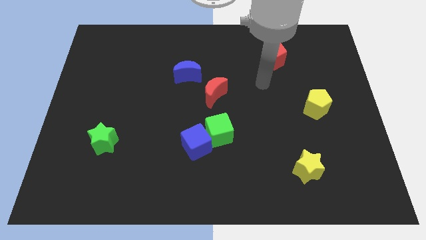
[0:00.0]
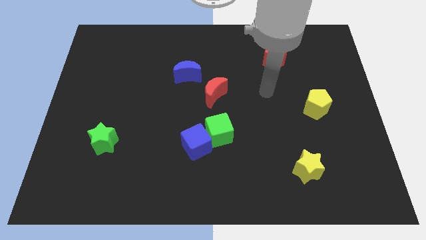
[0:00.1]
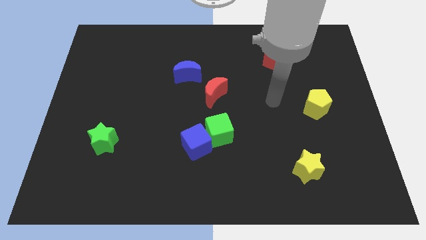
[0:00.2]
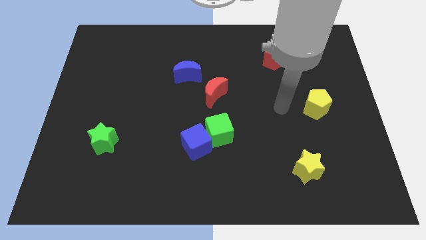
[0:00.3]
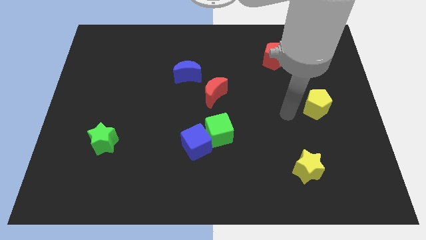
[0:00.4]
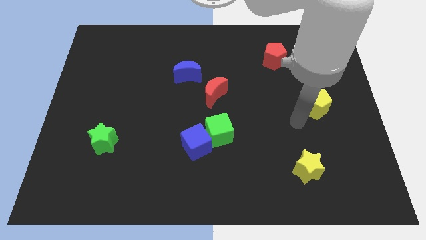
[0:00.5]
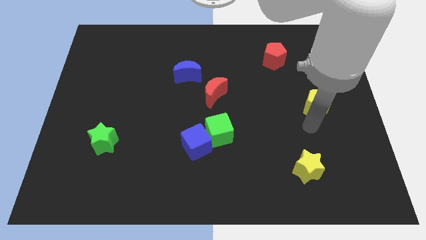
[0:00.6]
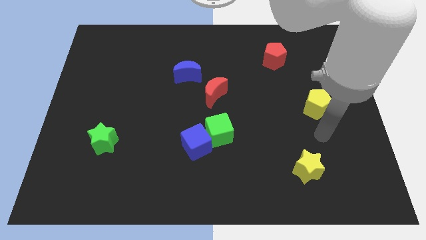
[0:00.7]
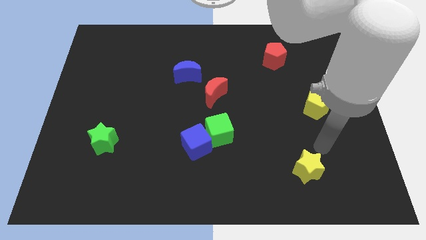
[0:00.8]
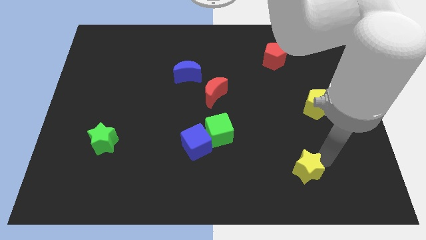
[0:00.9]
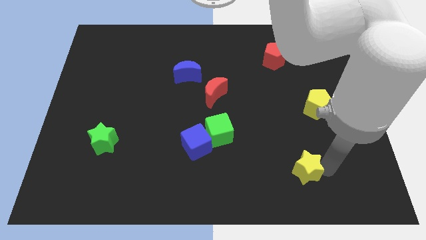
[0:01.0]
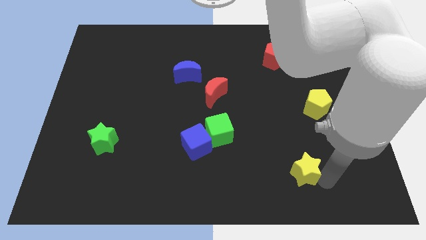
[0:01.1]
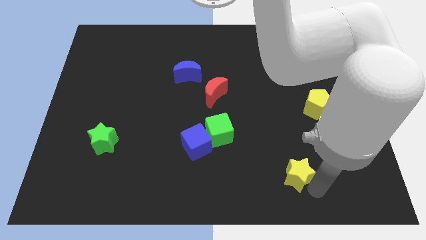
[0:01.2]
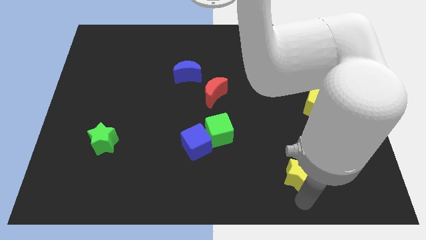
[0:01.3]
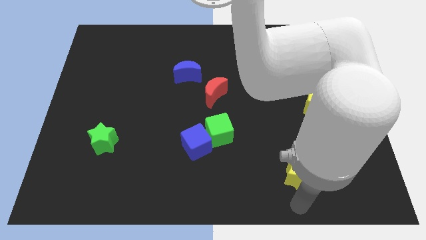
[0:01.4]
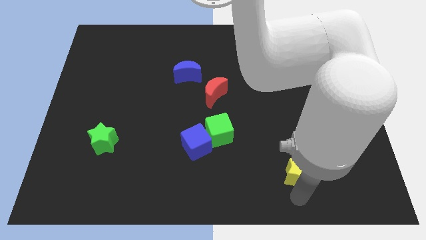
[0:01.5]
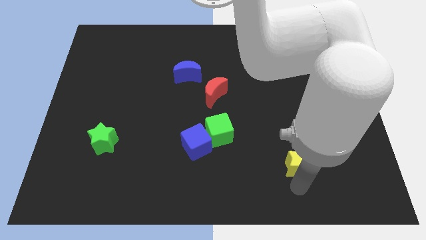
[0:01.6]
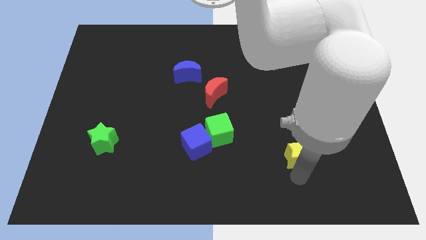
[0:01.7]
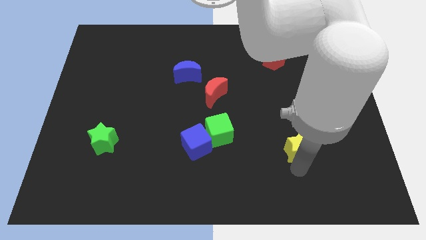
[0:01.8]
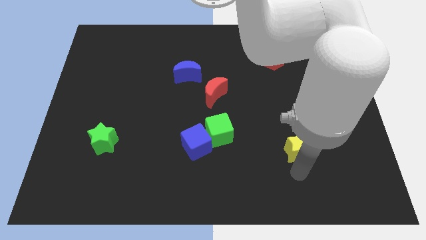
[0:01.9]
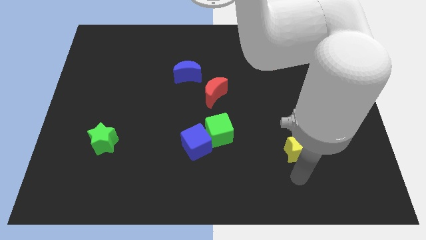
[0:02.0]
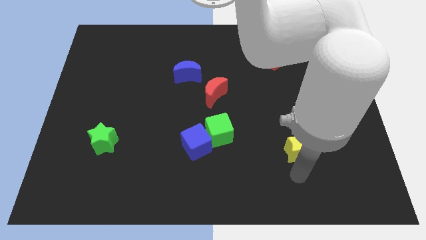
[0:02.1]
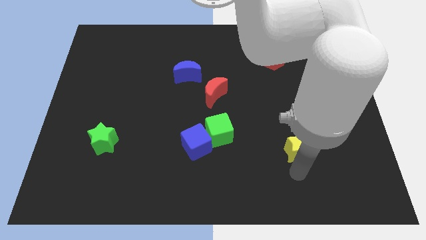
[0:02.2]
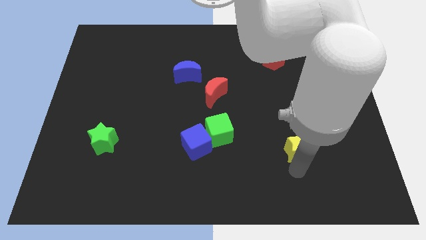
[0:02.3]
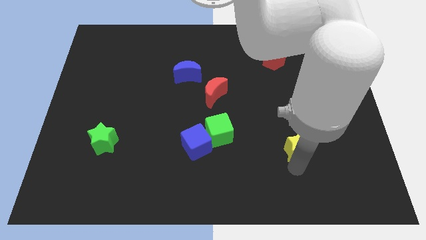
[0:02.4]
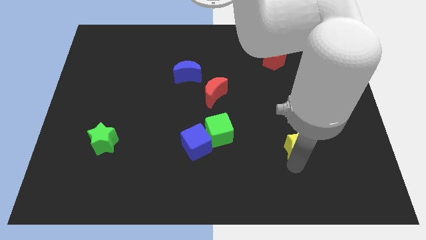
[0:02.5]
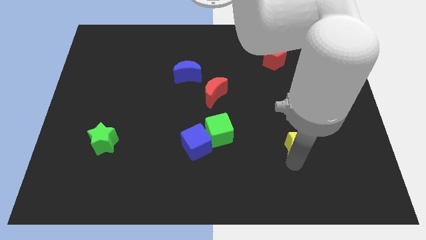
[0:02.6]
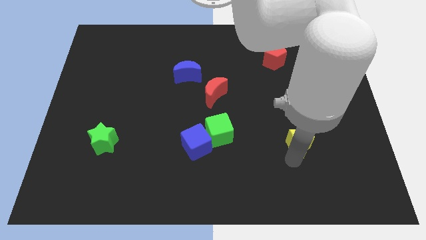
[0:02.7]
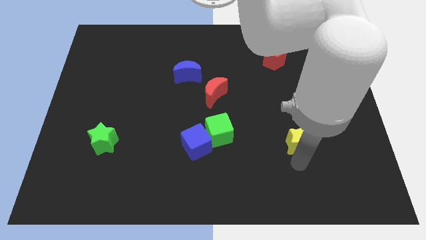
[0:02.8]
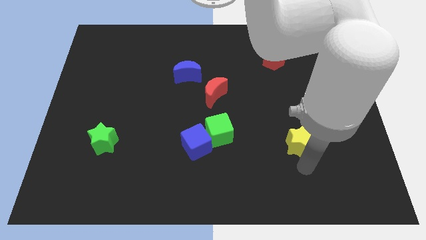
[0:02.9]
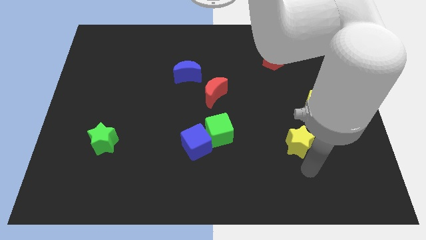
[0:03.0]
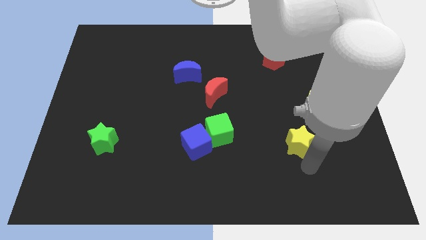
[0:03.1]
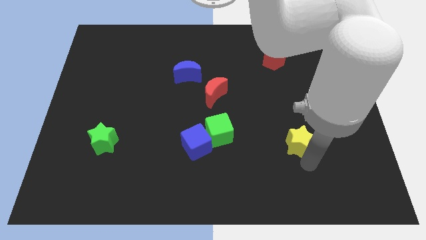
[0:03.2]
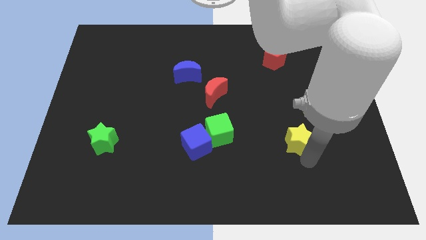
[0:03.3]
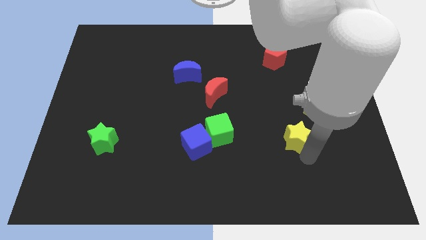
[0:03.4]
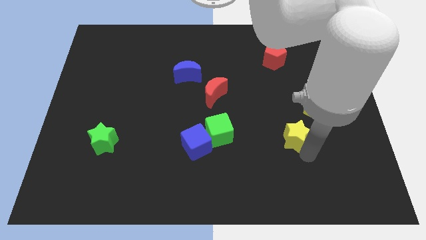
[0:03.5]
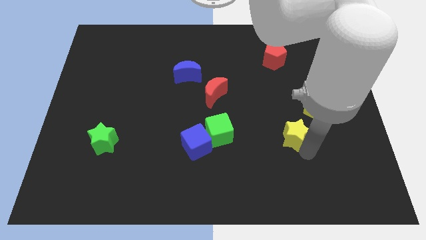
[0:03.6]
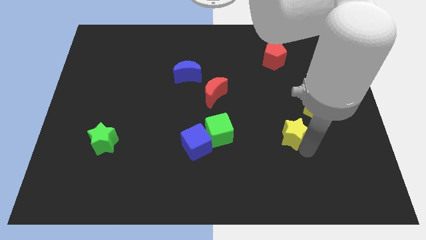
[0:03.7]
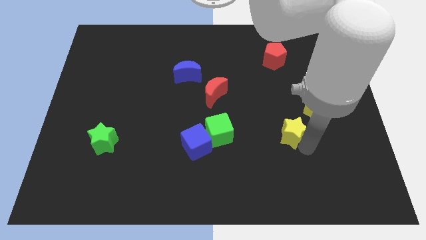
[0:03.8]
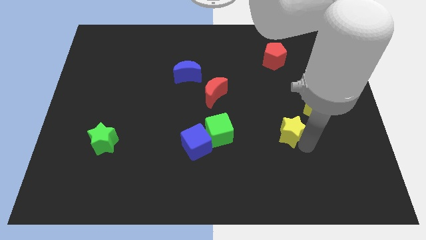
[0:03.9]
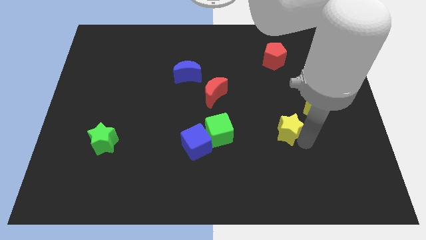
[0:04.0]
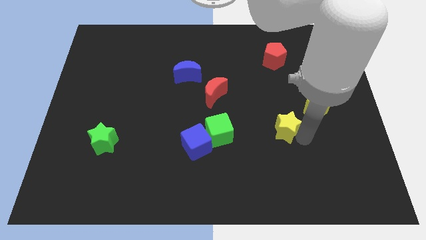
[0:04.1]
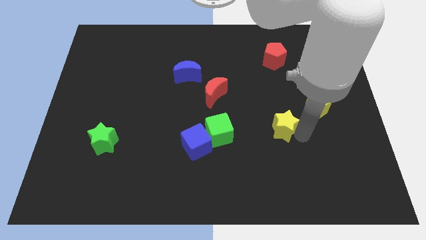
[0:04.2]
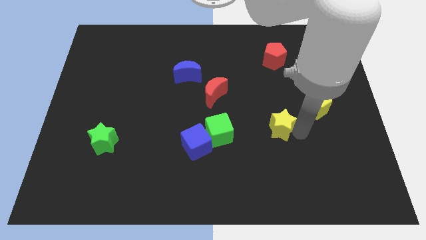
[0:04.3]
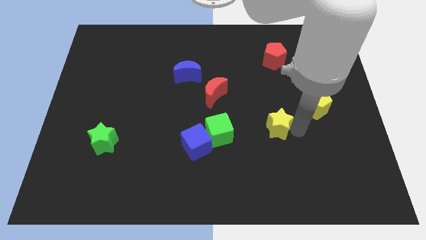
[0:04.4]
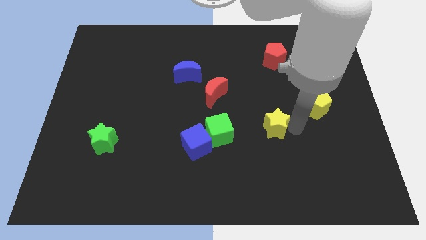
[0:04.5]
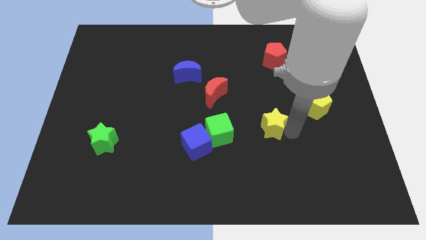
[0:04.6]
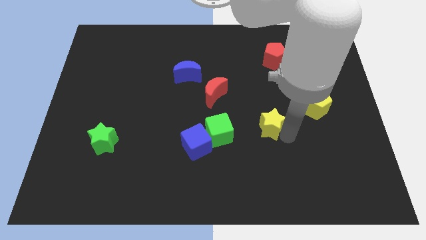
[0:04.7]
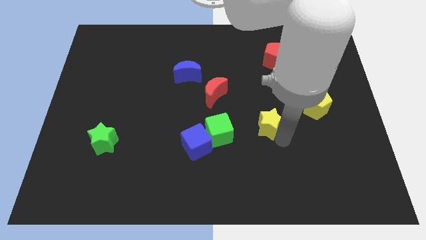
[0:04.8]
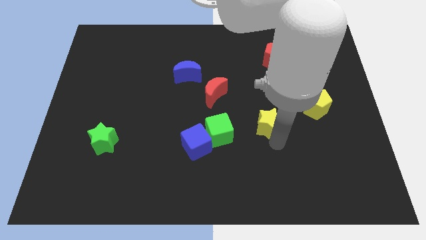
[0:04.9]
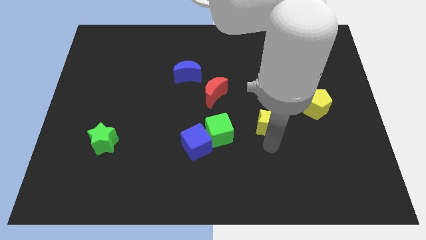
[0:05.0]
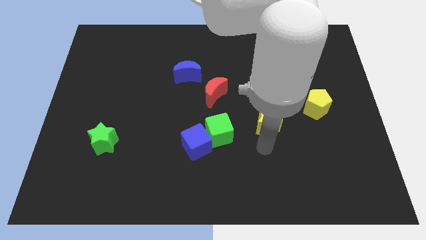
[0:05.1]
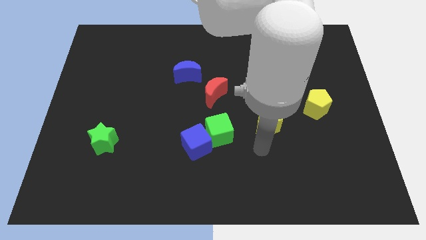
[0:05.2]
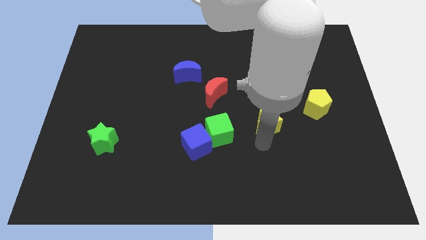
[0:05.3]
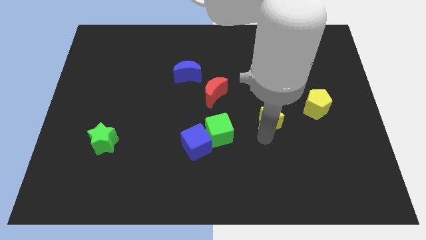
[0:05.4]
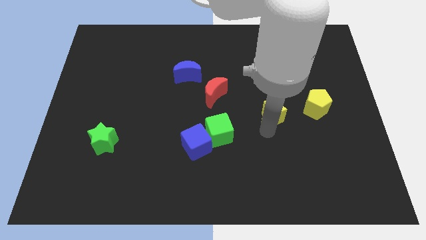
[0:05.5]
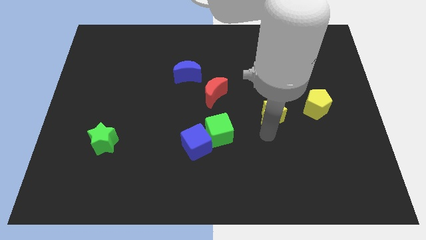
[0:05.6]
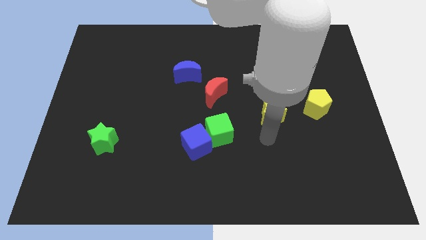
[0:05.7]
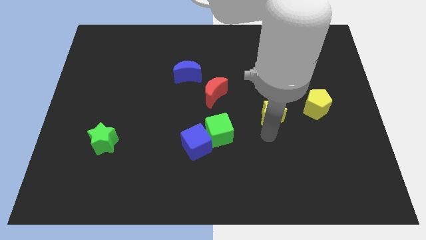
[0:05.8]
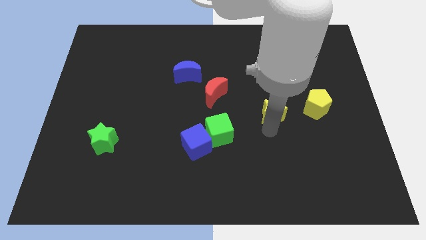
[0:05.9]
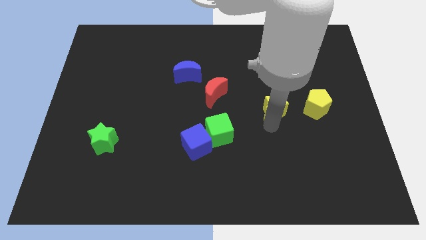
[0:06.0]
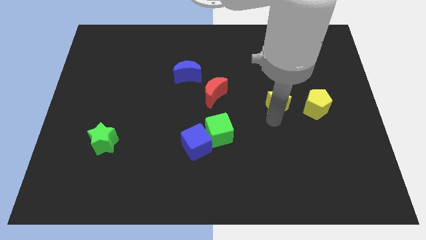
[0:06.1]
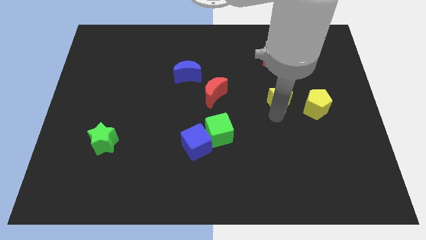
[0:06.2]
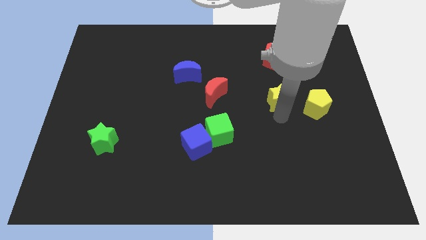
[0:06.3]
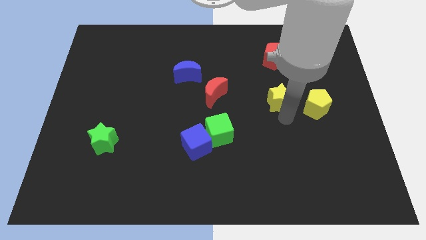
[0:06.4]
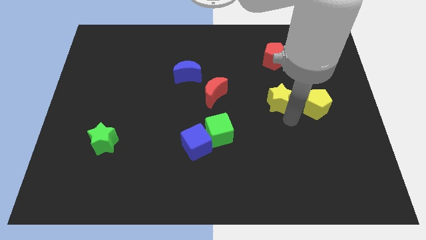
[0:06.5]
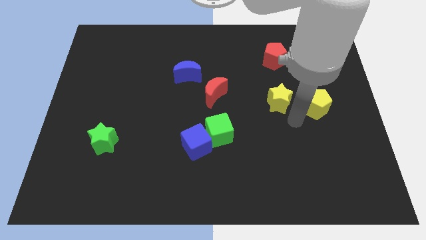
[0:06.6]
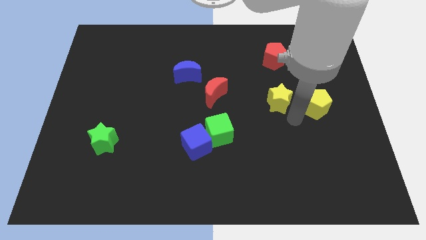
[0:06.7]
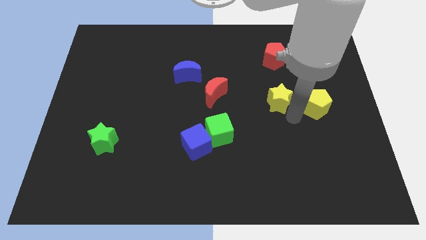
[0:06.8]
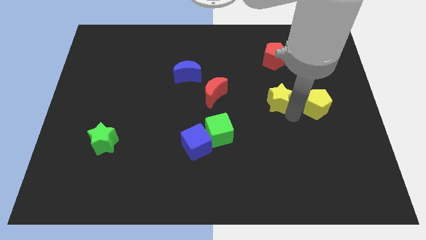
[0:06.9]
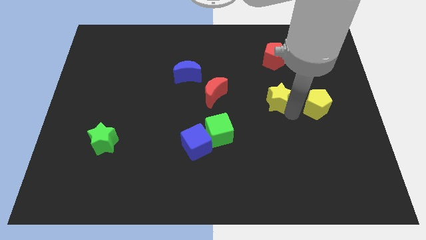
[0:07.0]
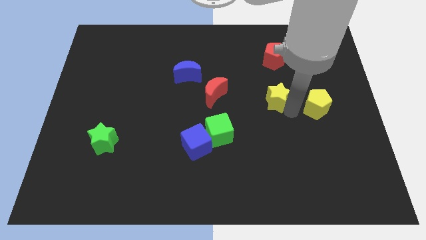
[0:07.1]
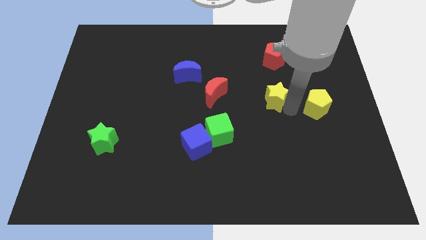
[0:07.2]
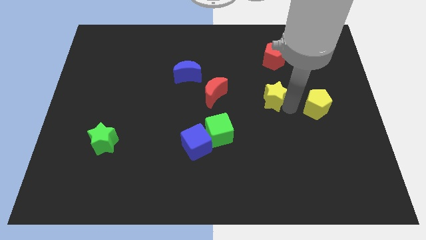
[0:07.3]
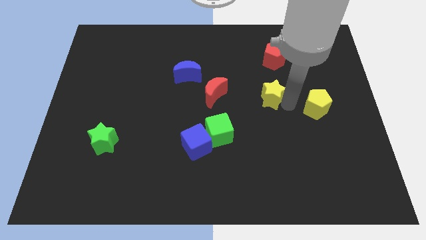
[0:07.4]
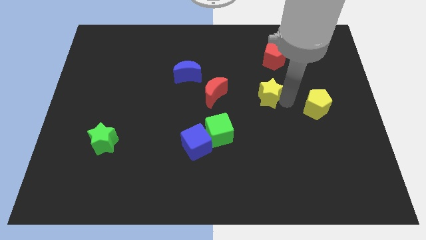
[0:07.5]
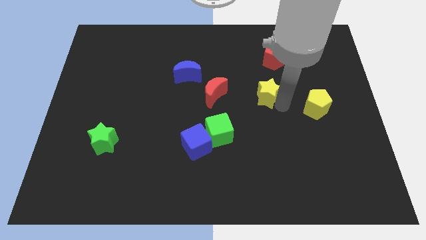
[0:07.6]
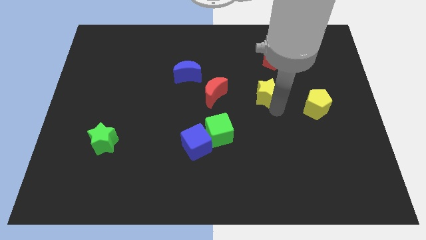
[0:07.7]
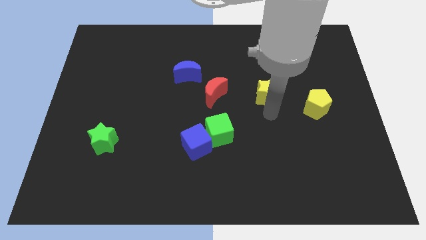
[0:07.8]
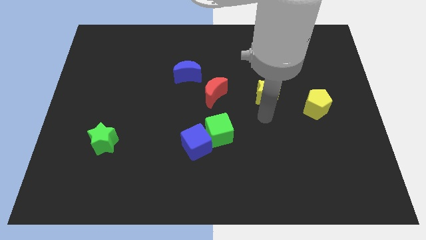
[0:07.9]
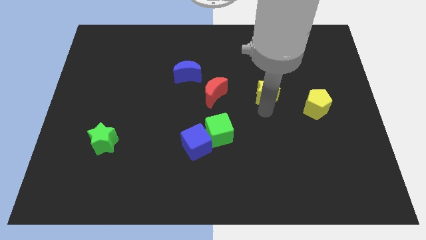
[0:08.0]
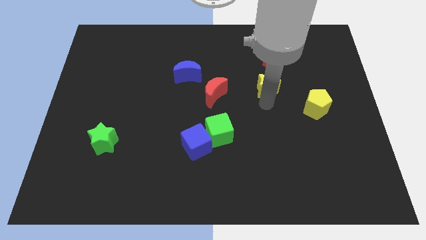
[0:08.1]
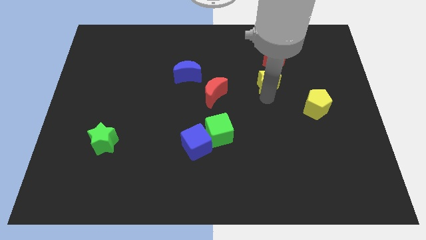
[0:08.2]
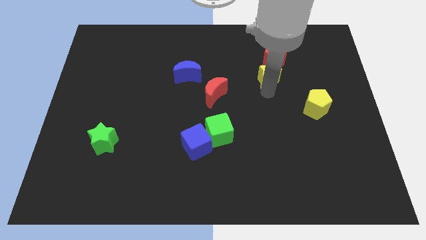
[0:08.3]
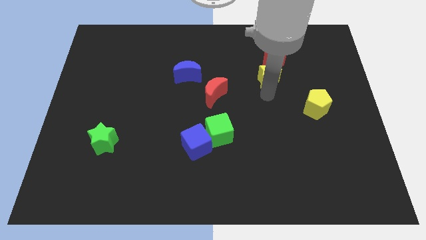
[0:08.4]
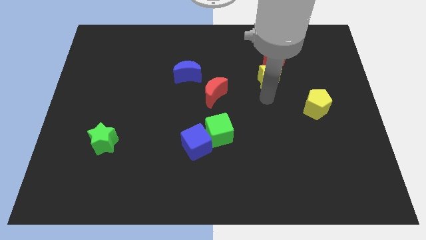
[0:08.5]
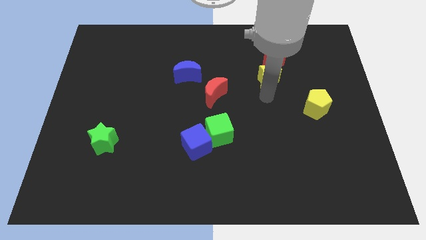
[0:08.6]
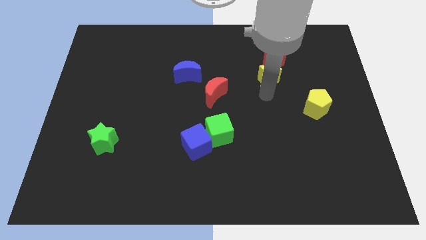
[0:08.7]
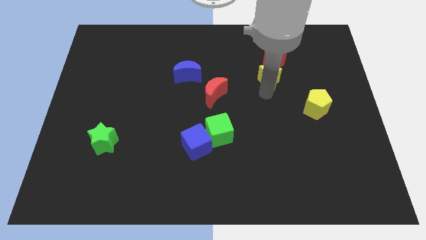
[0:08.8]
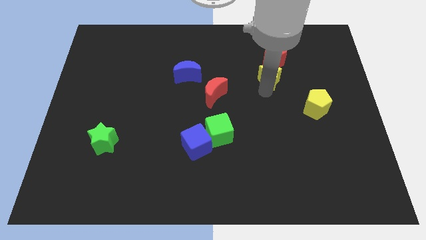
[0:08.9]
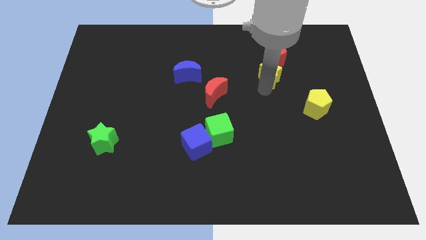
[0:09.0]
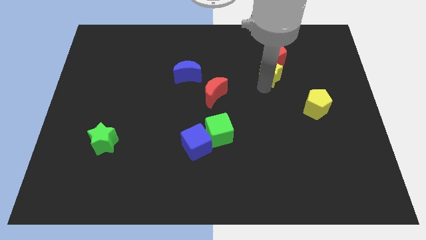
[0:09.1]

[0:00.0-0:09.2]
move the yellow star close to the red pentagon
